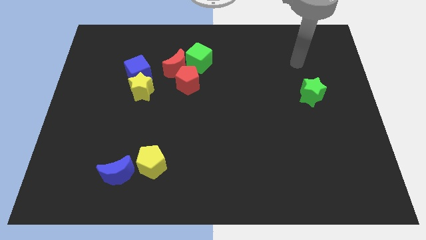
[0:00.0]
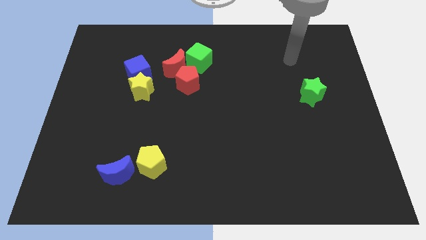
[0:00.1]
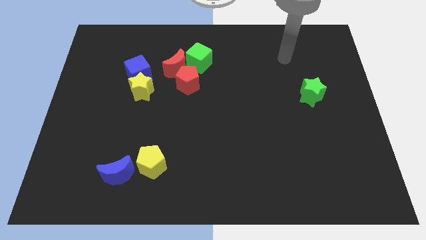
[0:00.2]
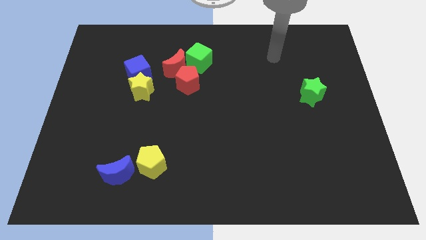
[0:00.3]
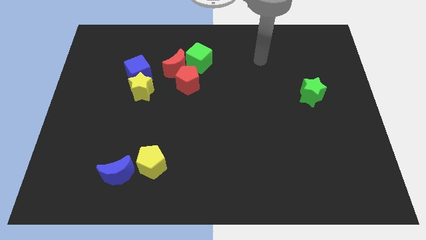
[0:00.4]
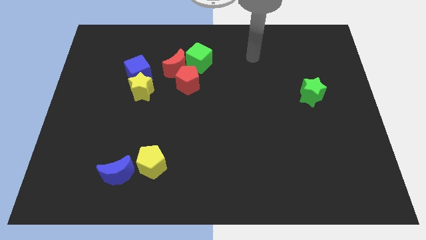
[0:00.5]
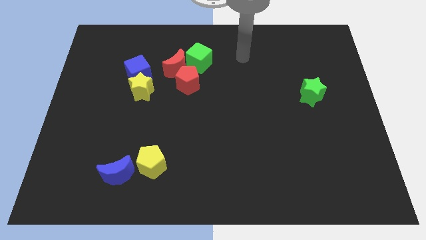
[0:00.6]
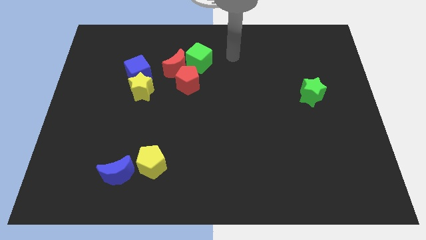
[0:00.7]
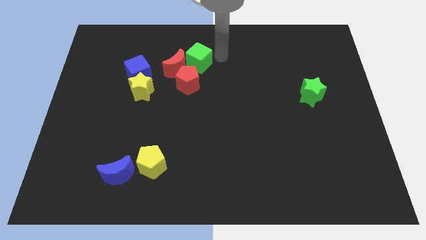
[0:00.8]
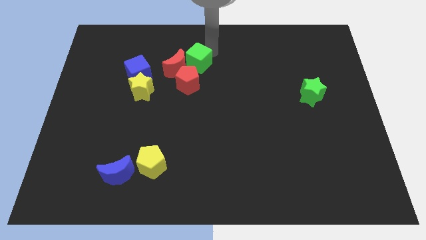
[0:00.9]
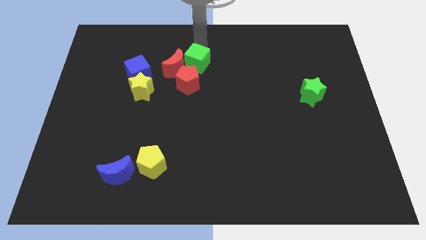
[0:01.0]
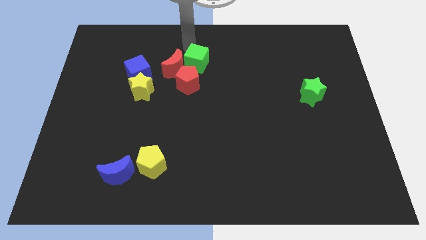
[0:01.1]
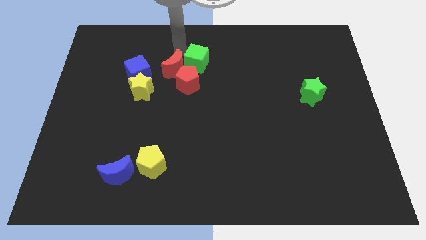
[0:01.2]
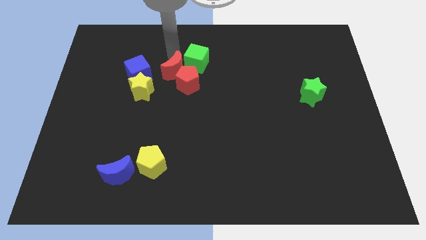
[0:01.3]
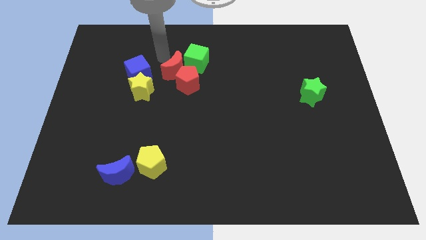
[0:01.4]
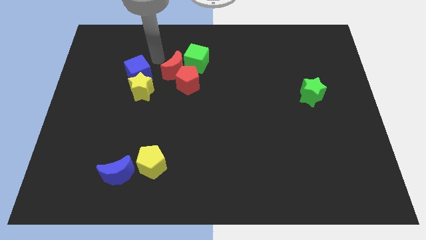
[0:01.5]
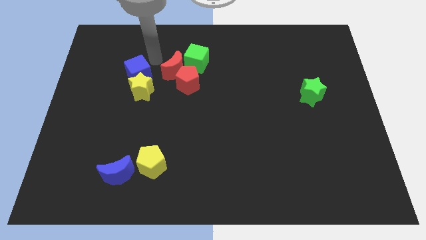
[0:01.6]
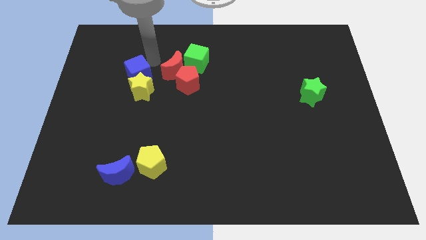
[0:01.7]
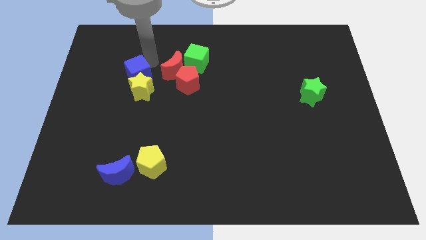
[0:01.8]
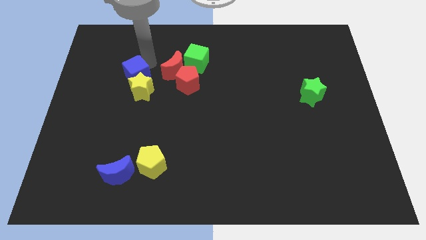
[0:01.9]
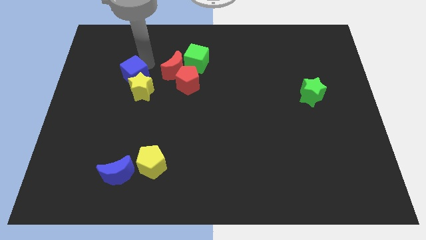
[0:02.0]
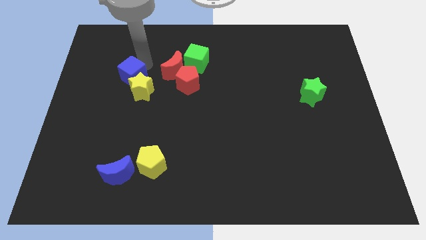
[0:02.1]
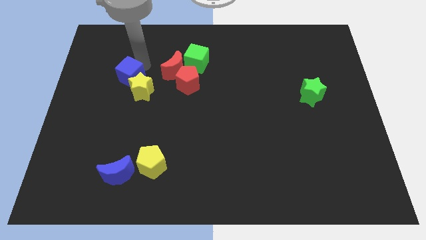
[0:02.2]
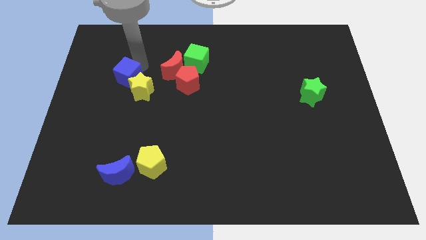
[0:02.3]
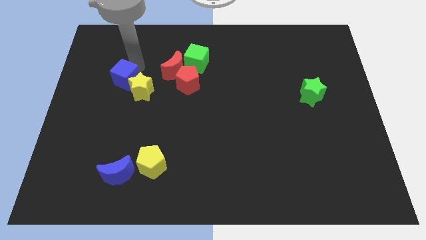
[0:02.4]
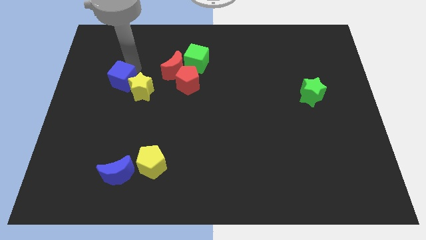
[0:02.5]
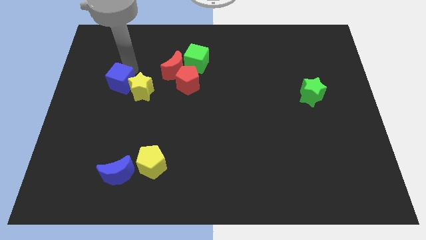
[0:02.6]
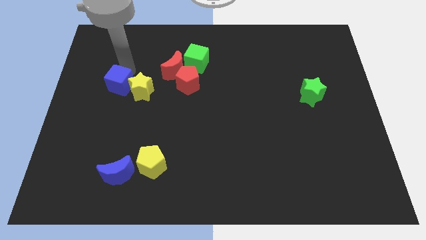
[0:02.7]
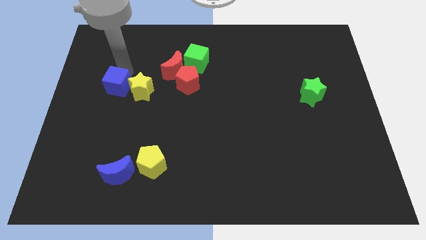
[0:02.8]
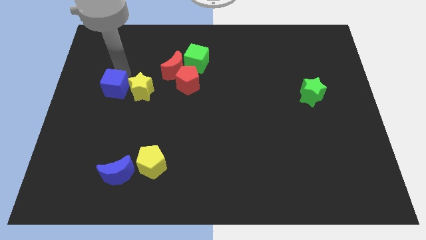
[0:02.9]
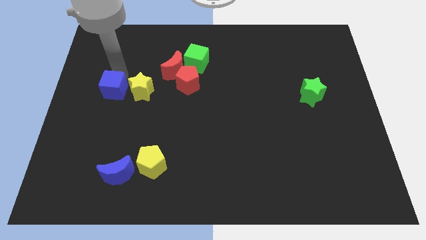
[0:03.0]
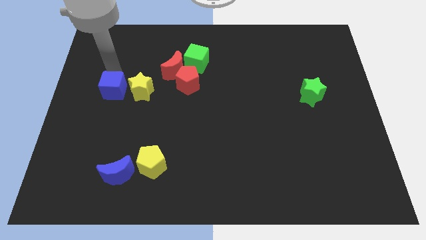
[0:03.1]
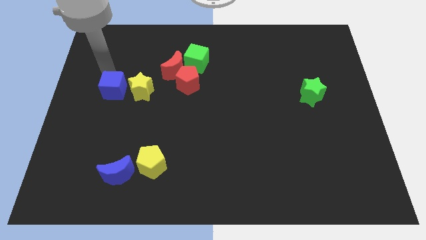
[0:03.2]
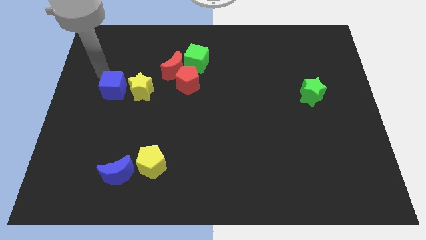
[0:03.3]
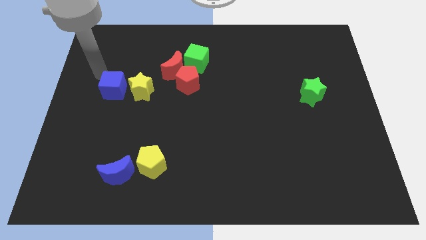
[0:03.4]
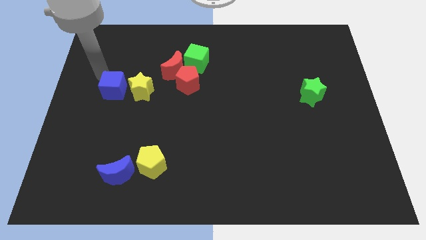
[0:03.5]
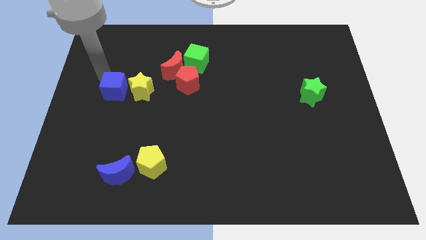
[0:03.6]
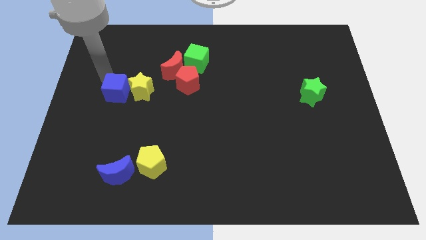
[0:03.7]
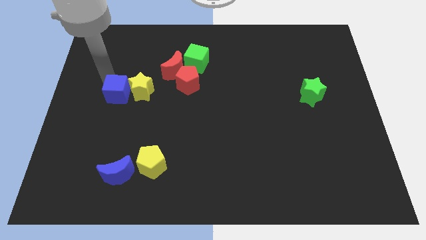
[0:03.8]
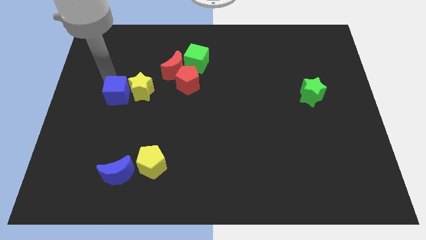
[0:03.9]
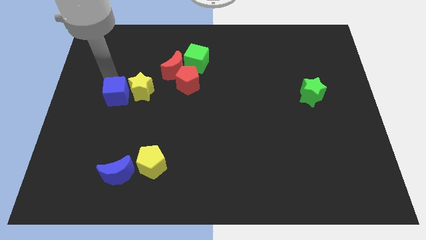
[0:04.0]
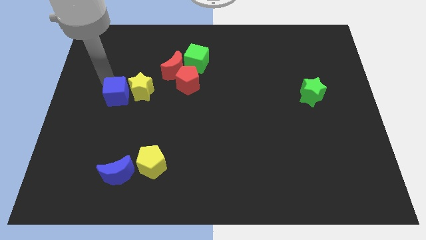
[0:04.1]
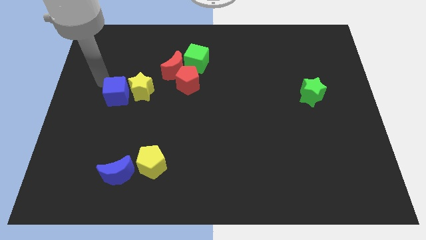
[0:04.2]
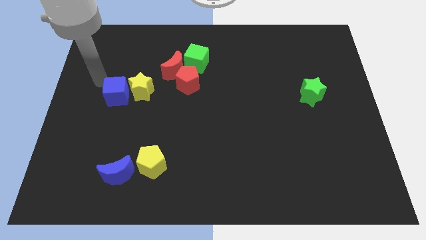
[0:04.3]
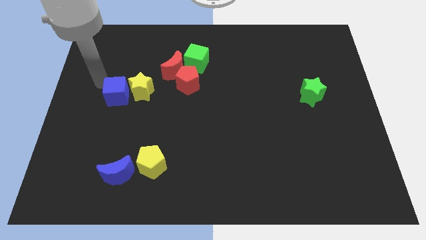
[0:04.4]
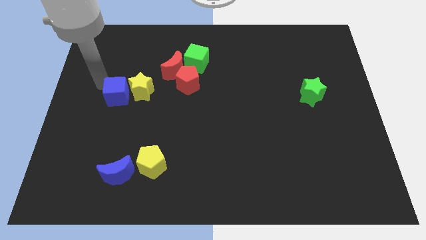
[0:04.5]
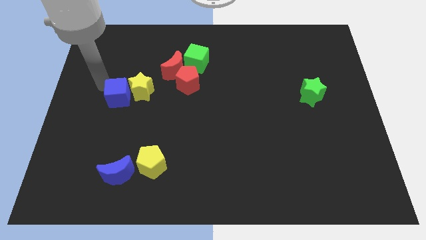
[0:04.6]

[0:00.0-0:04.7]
slightly push the blue cube downwards

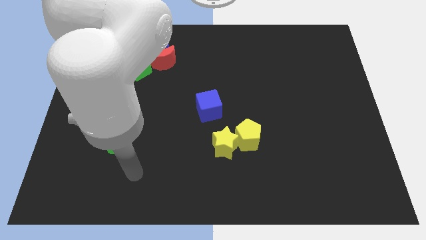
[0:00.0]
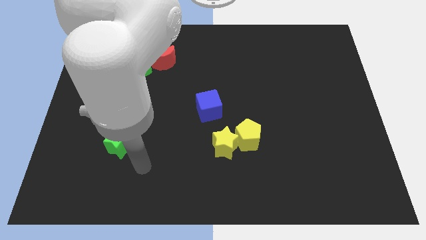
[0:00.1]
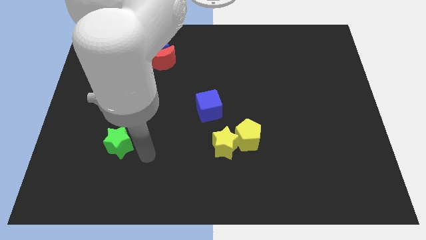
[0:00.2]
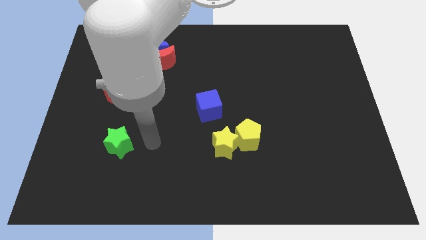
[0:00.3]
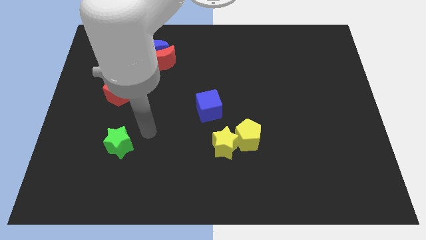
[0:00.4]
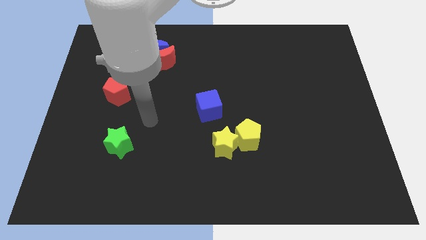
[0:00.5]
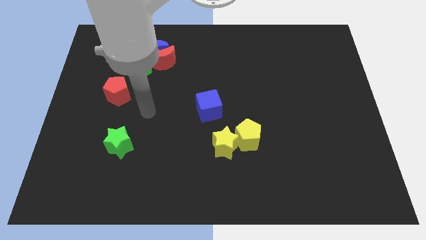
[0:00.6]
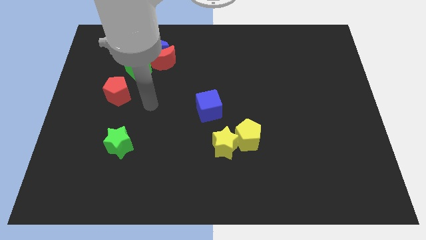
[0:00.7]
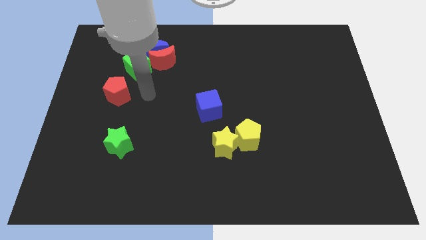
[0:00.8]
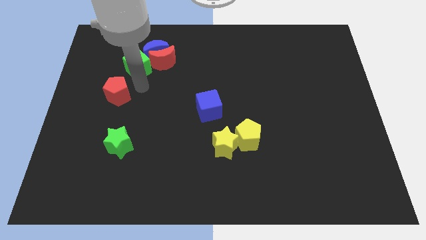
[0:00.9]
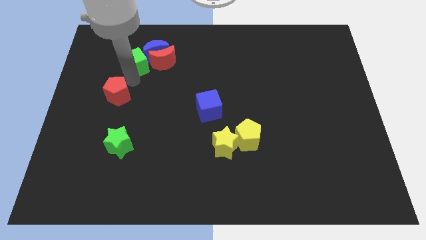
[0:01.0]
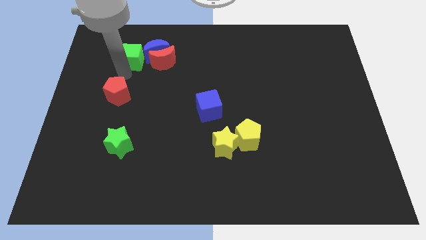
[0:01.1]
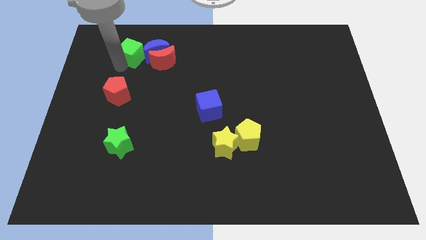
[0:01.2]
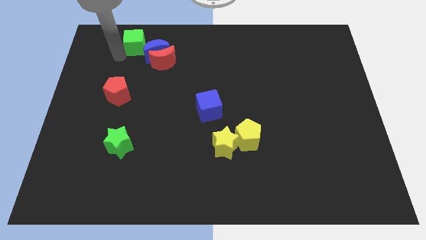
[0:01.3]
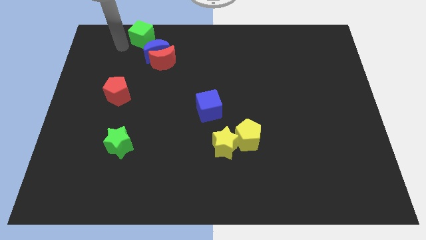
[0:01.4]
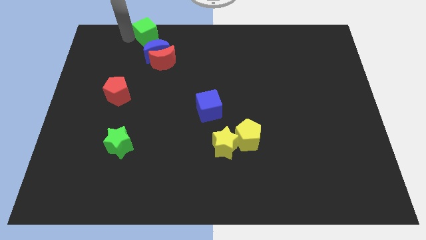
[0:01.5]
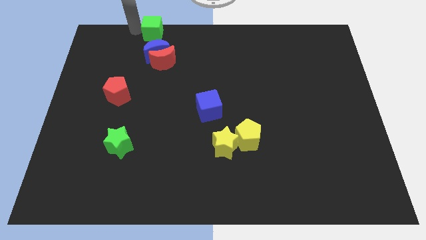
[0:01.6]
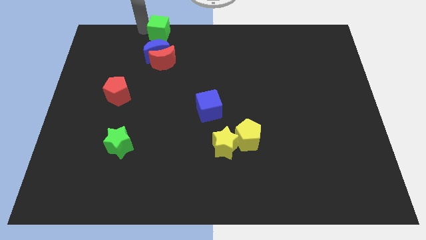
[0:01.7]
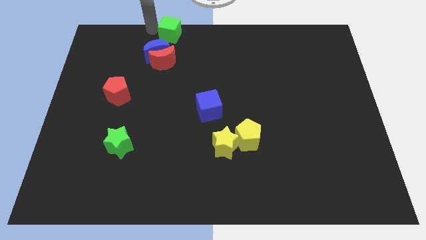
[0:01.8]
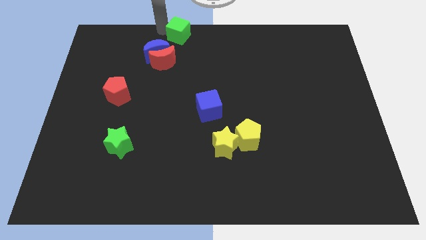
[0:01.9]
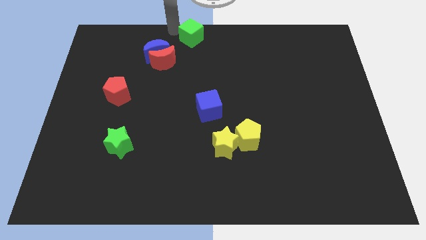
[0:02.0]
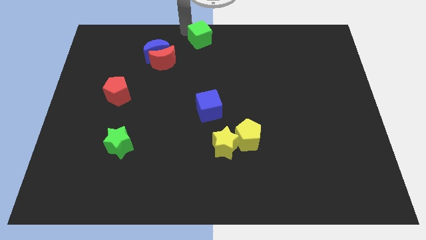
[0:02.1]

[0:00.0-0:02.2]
slide the green cube right somewhat

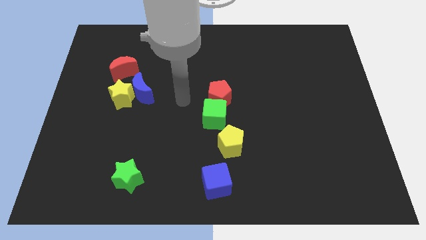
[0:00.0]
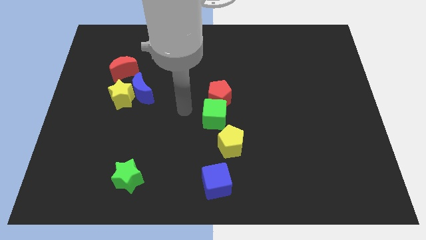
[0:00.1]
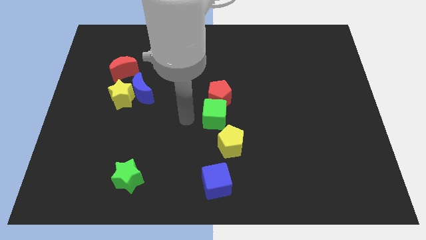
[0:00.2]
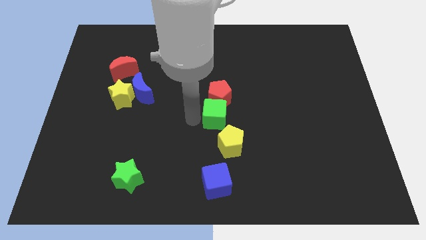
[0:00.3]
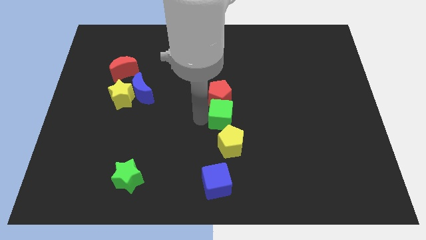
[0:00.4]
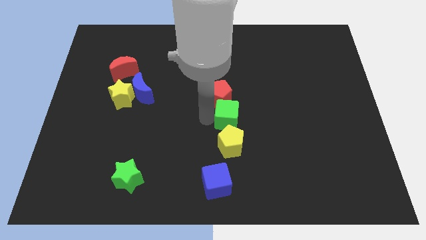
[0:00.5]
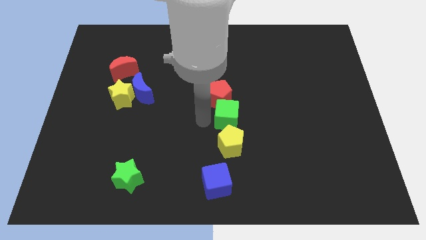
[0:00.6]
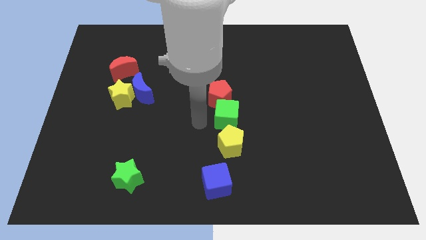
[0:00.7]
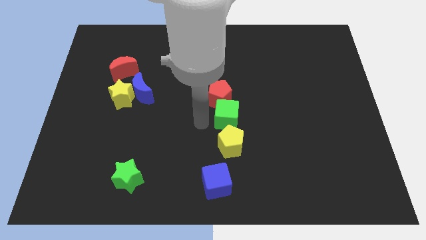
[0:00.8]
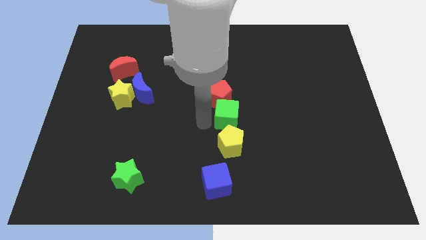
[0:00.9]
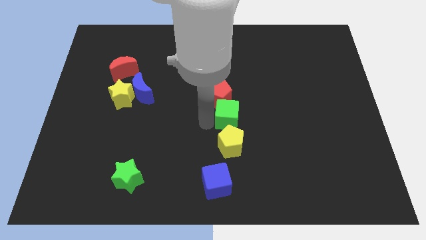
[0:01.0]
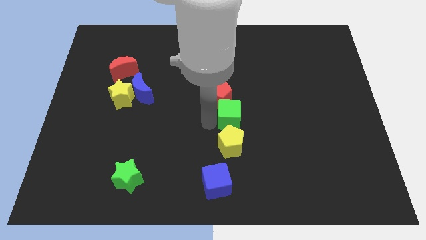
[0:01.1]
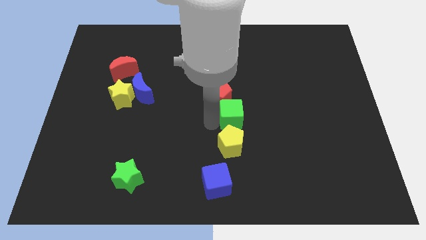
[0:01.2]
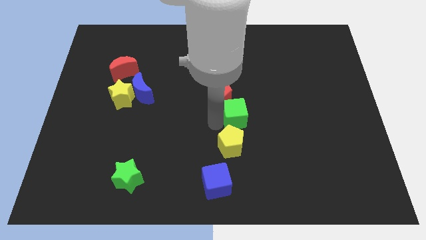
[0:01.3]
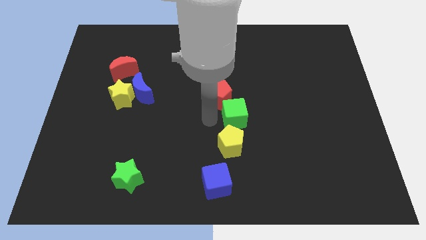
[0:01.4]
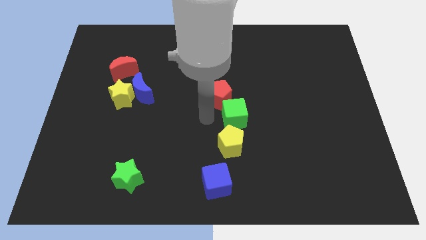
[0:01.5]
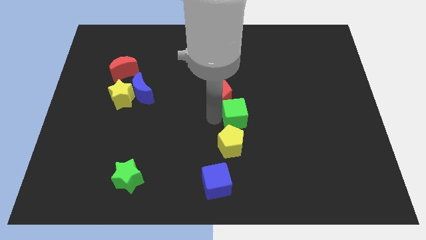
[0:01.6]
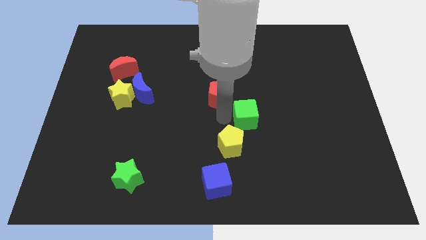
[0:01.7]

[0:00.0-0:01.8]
push the green cube right a bit
